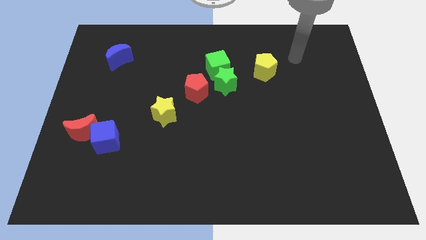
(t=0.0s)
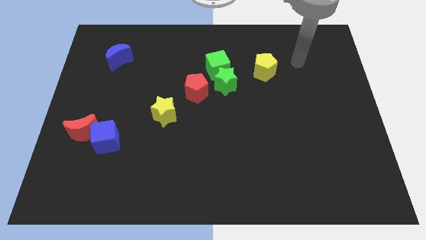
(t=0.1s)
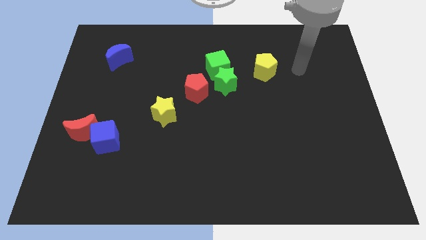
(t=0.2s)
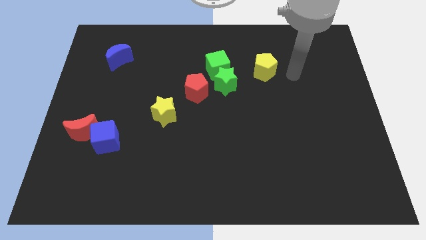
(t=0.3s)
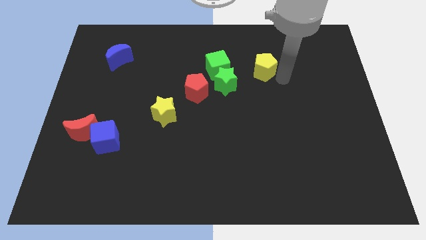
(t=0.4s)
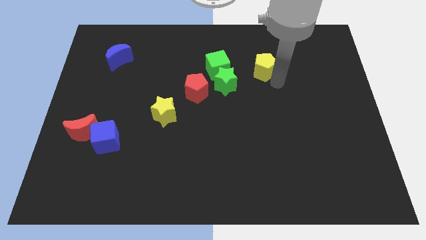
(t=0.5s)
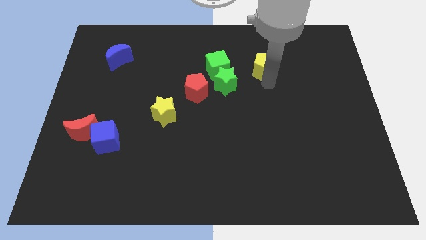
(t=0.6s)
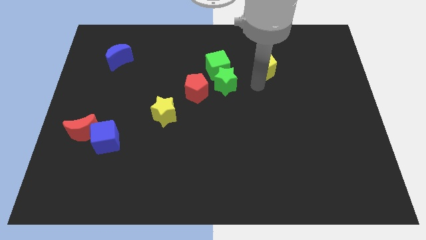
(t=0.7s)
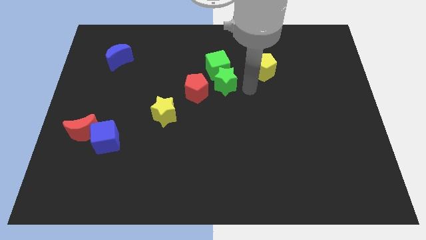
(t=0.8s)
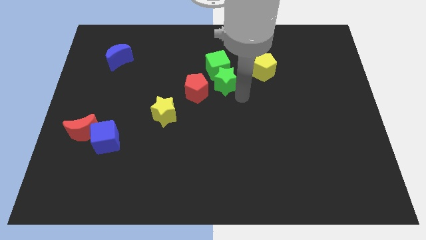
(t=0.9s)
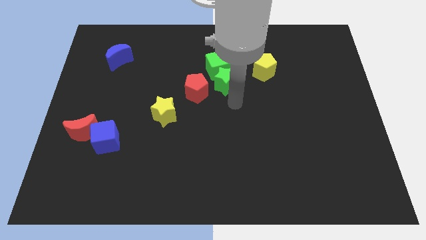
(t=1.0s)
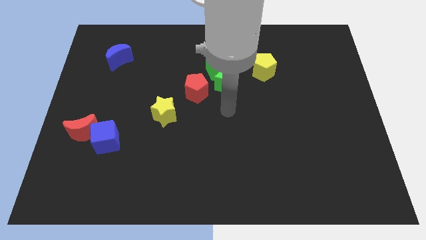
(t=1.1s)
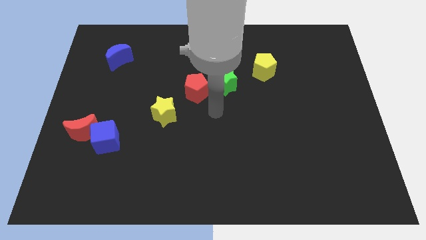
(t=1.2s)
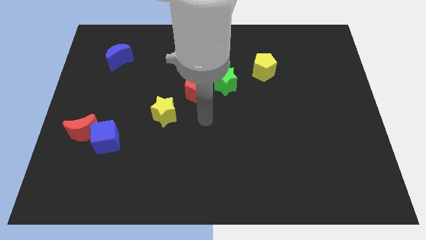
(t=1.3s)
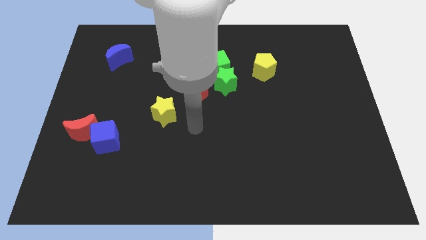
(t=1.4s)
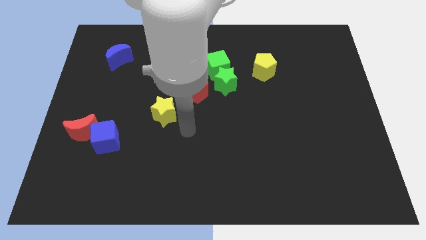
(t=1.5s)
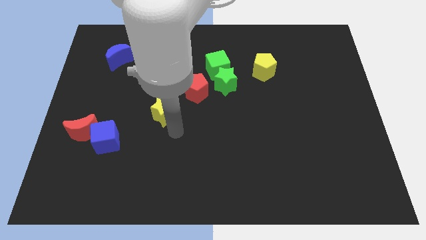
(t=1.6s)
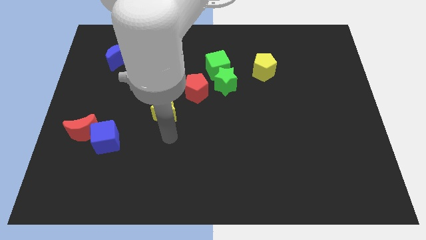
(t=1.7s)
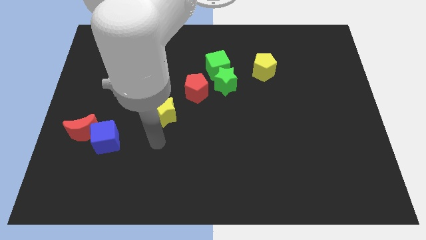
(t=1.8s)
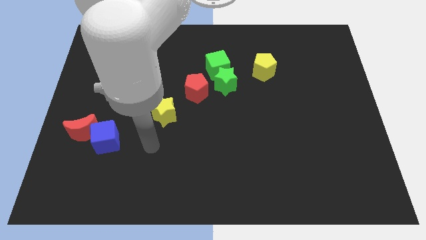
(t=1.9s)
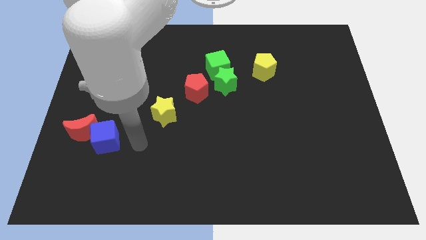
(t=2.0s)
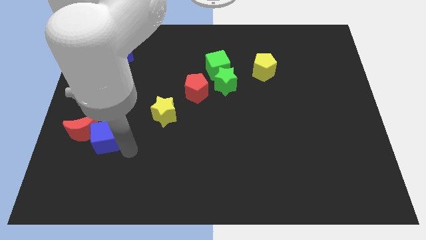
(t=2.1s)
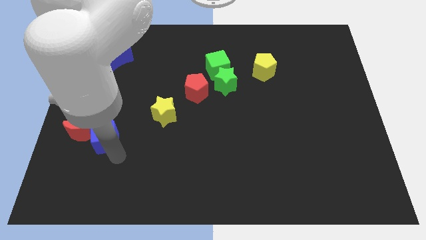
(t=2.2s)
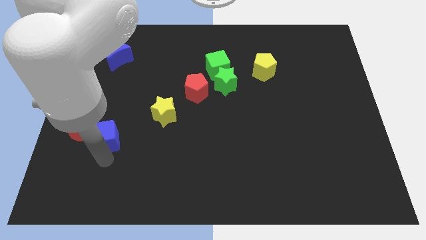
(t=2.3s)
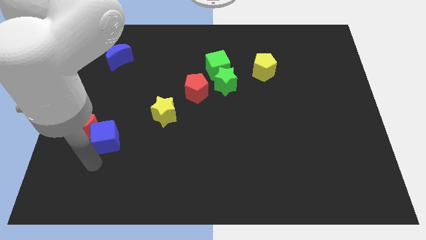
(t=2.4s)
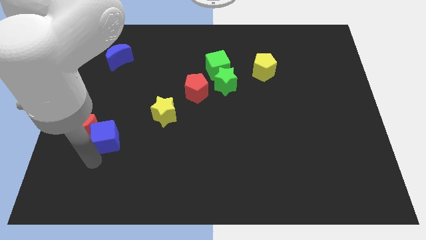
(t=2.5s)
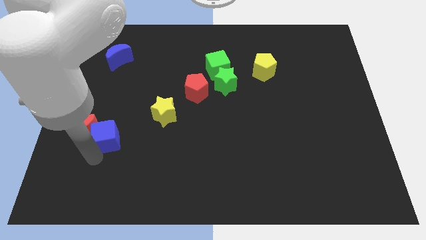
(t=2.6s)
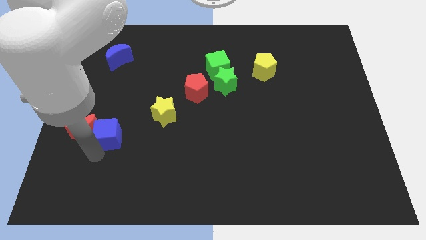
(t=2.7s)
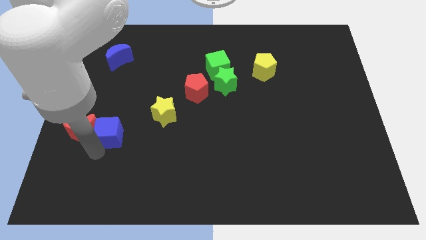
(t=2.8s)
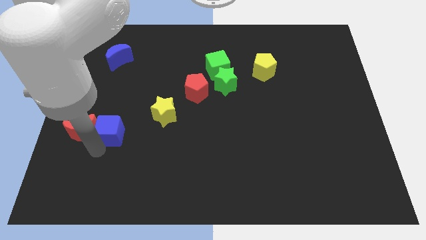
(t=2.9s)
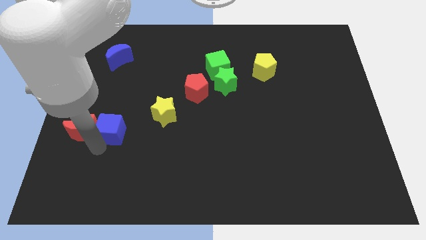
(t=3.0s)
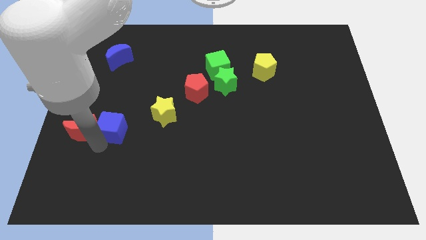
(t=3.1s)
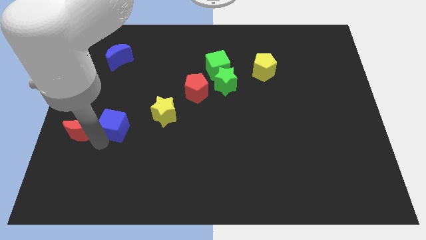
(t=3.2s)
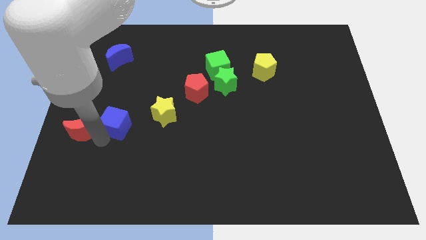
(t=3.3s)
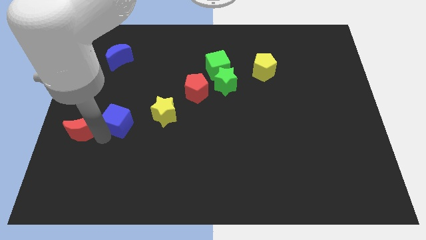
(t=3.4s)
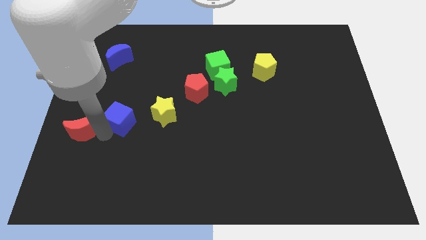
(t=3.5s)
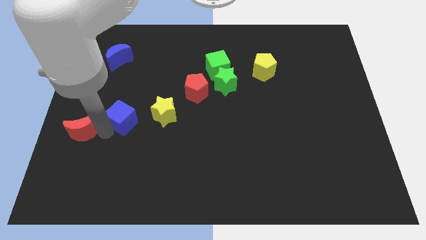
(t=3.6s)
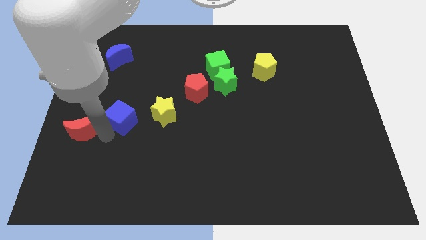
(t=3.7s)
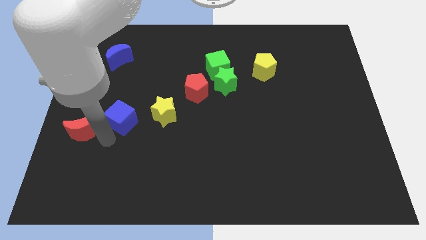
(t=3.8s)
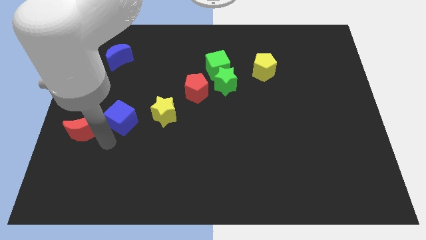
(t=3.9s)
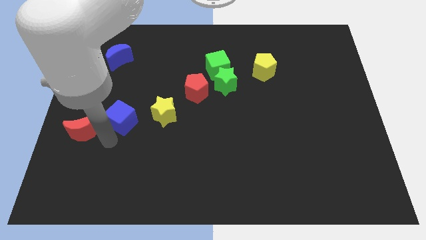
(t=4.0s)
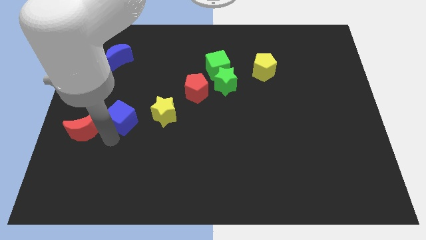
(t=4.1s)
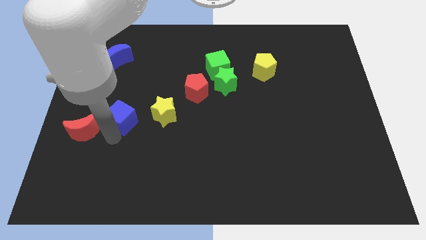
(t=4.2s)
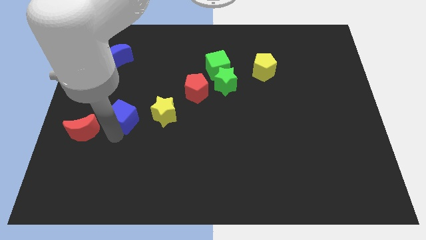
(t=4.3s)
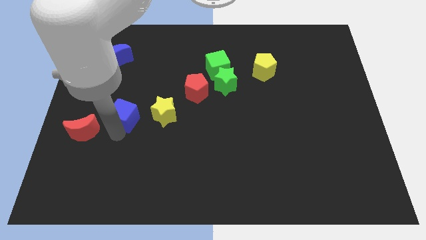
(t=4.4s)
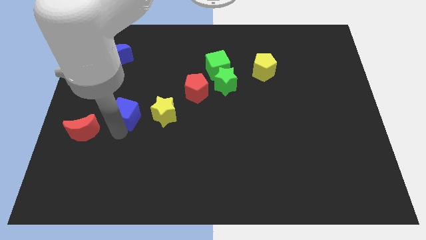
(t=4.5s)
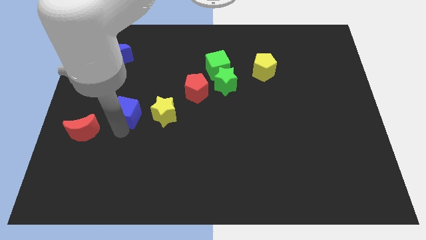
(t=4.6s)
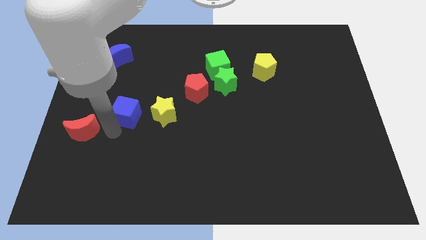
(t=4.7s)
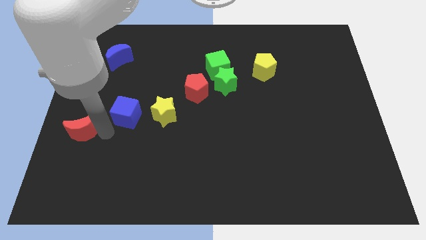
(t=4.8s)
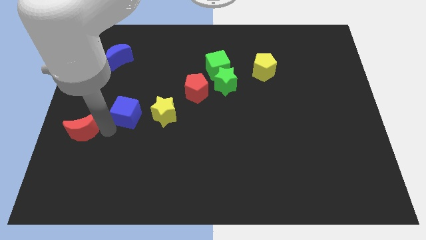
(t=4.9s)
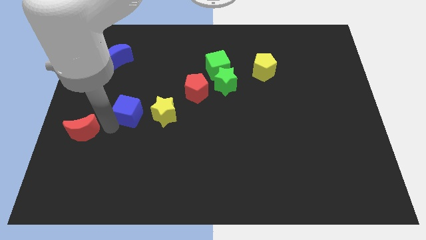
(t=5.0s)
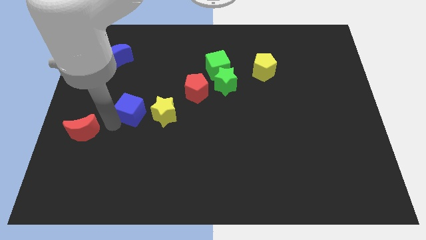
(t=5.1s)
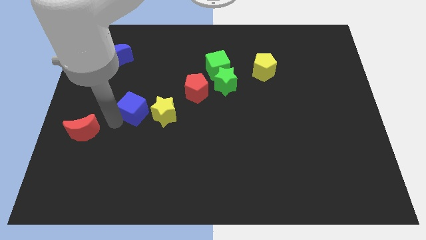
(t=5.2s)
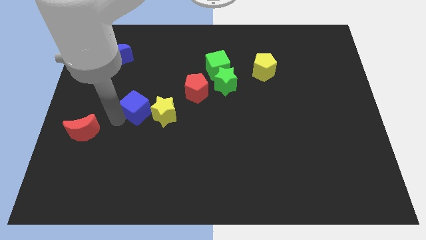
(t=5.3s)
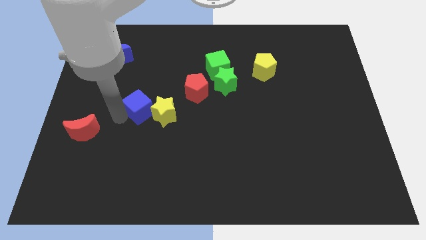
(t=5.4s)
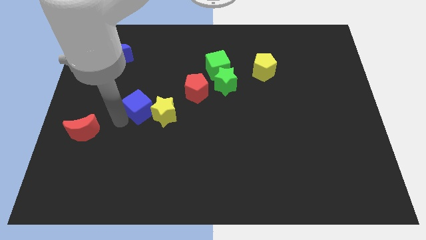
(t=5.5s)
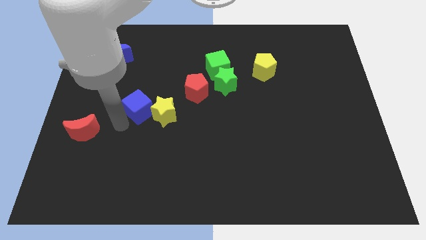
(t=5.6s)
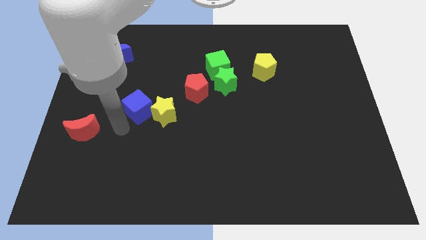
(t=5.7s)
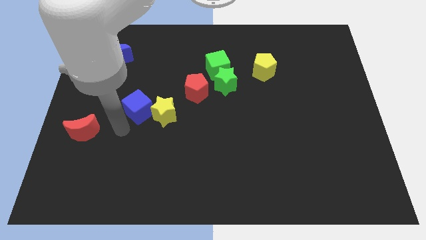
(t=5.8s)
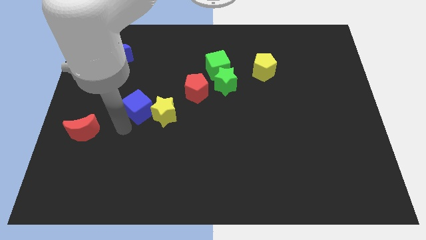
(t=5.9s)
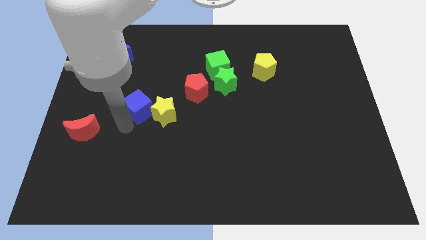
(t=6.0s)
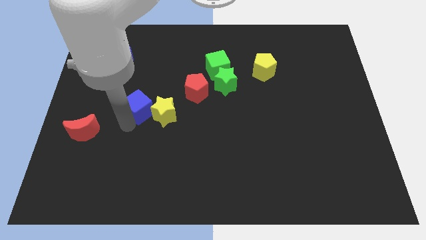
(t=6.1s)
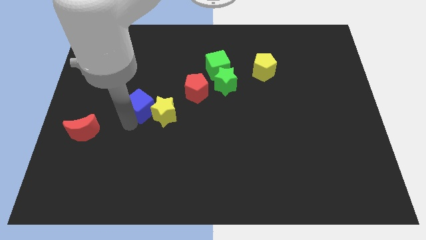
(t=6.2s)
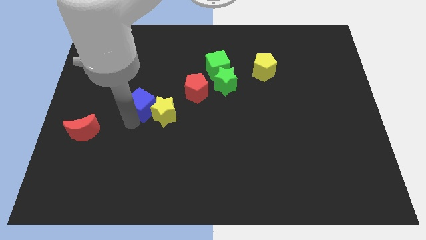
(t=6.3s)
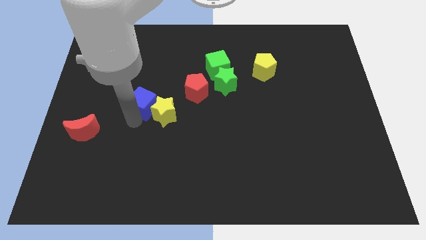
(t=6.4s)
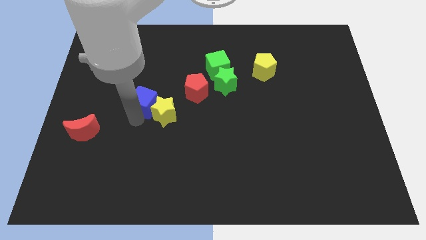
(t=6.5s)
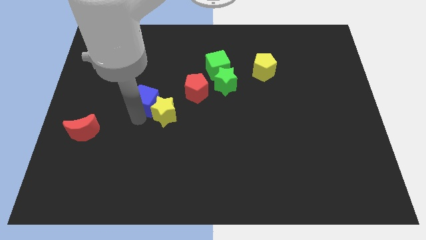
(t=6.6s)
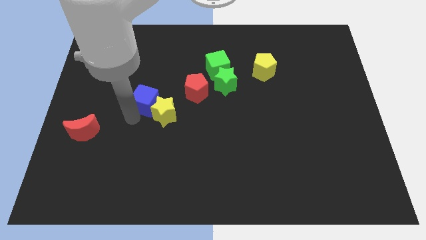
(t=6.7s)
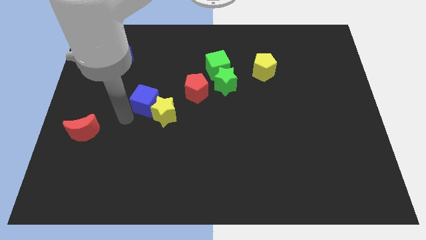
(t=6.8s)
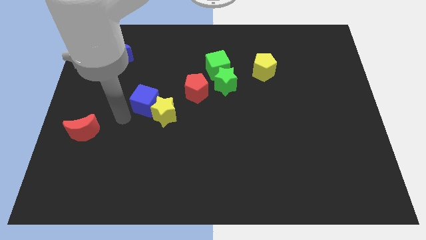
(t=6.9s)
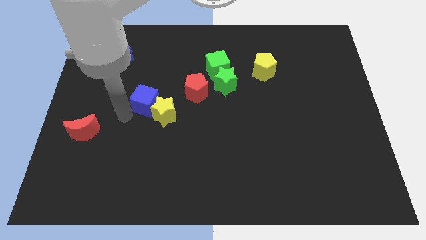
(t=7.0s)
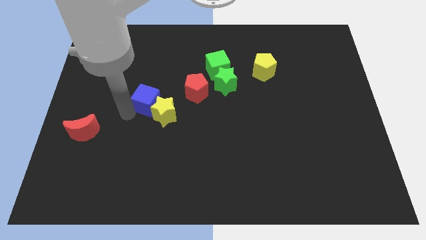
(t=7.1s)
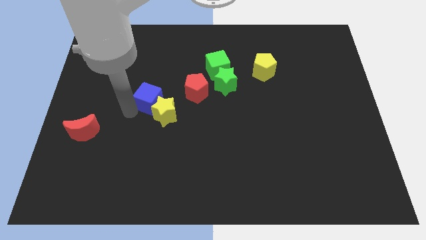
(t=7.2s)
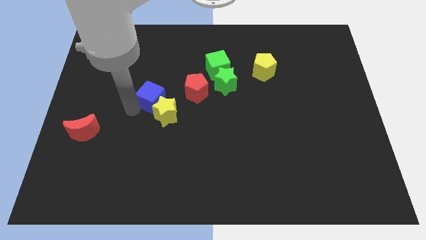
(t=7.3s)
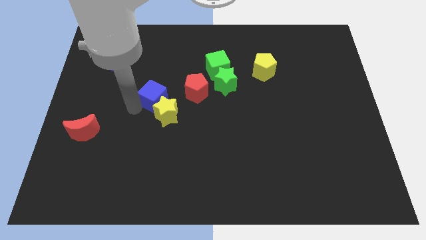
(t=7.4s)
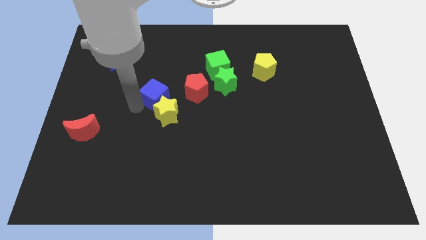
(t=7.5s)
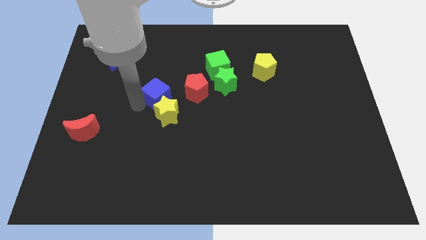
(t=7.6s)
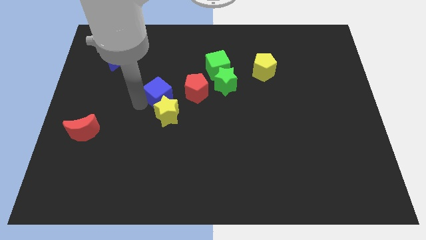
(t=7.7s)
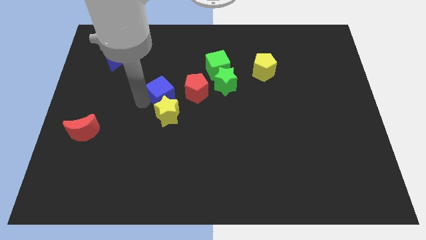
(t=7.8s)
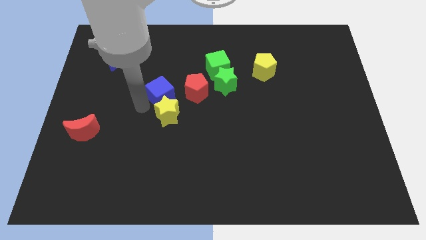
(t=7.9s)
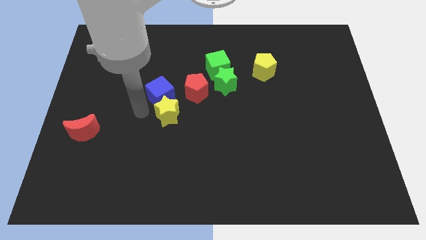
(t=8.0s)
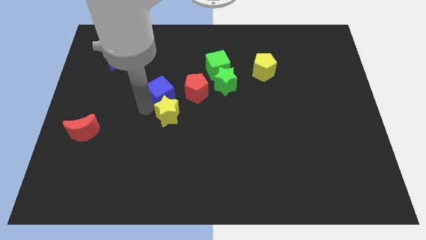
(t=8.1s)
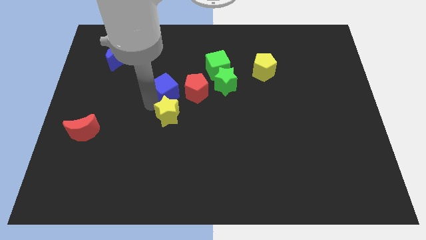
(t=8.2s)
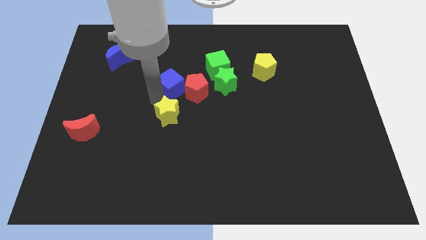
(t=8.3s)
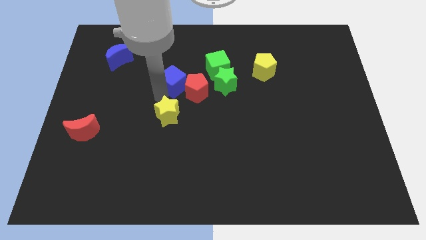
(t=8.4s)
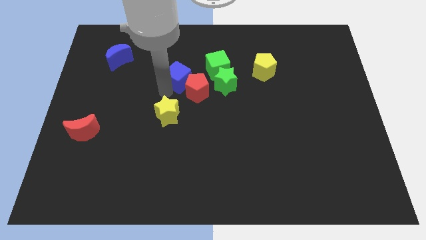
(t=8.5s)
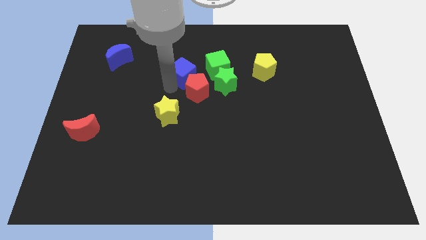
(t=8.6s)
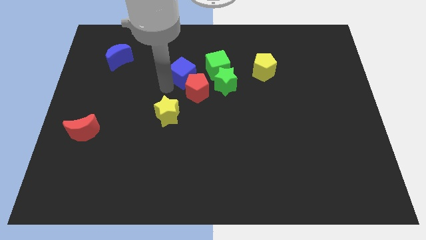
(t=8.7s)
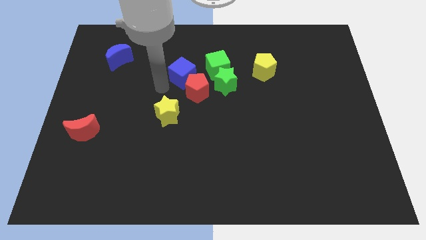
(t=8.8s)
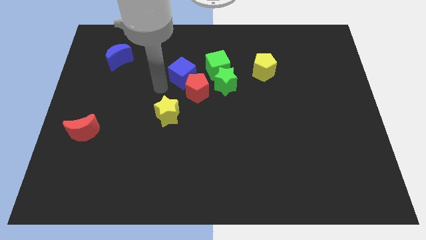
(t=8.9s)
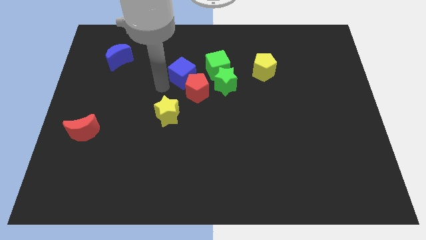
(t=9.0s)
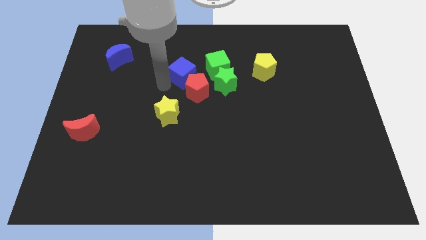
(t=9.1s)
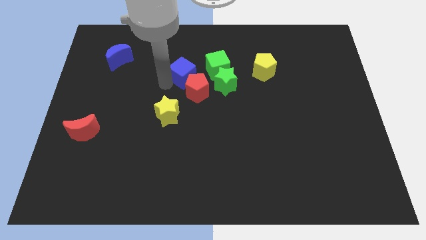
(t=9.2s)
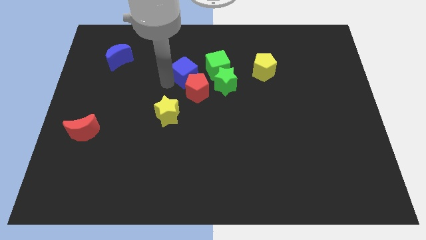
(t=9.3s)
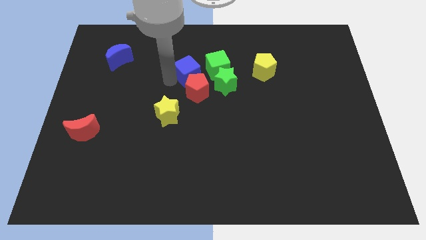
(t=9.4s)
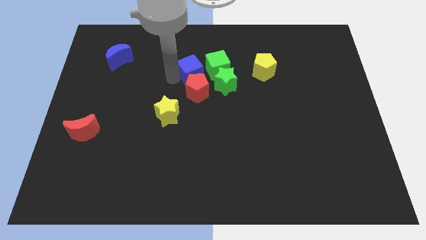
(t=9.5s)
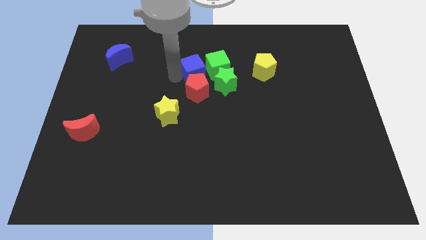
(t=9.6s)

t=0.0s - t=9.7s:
slide the blue cube to the green cube
